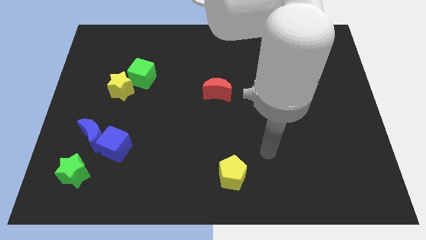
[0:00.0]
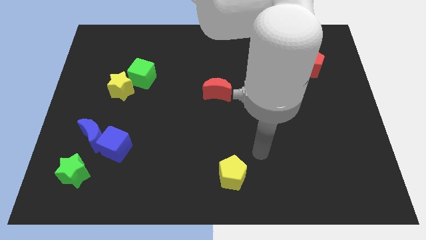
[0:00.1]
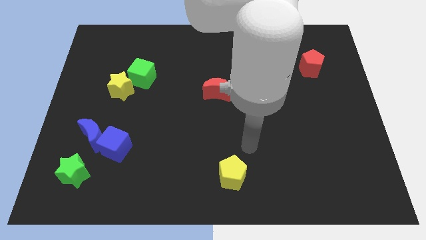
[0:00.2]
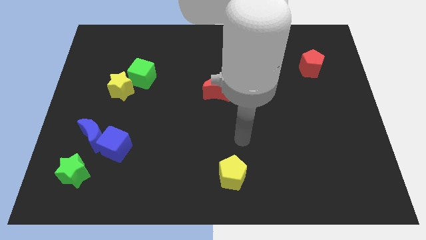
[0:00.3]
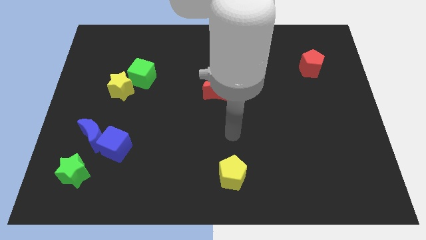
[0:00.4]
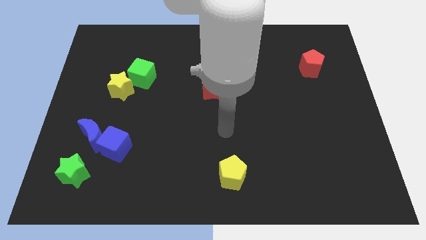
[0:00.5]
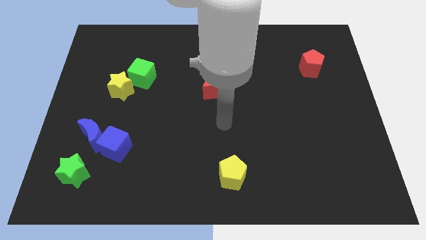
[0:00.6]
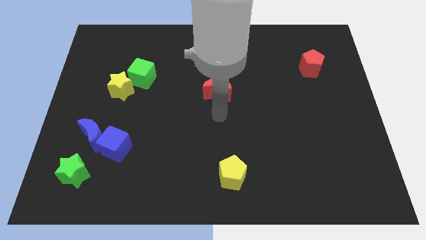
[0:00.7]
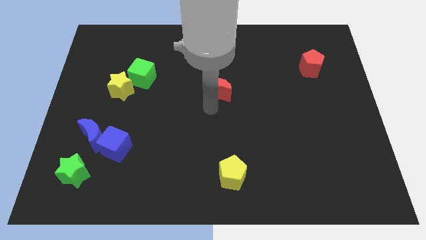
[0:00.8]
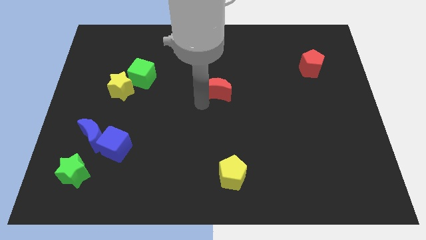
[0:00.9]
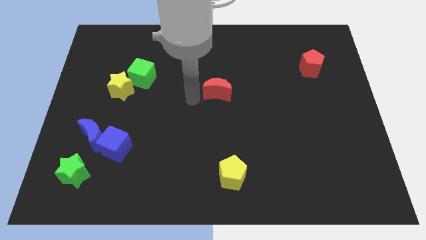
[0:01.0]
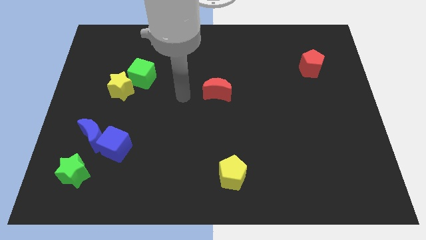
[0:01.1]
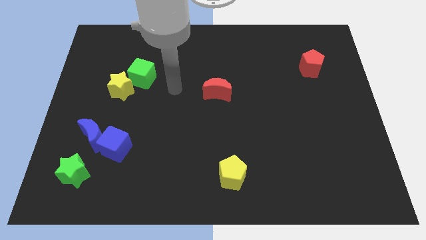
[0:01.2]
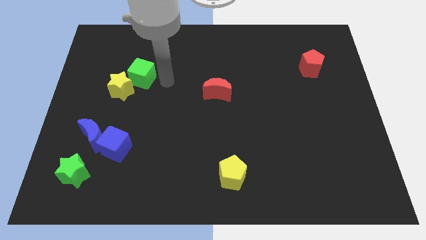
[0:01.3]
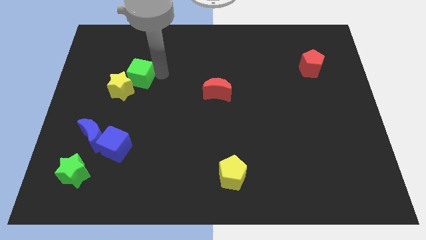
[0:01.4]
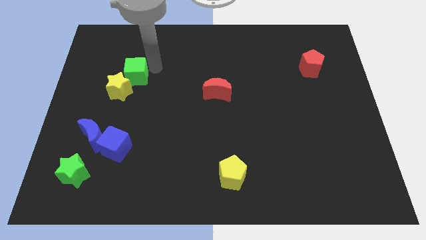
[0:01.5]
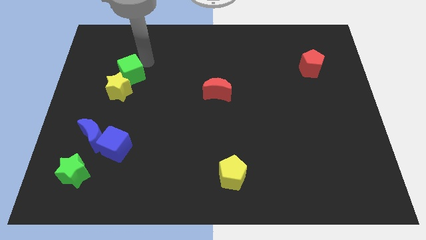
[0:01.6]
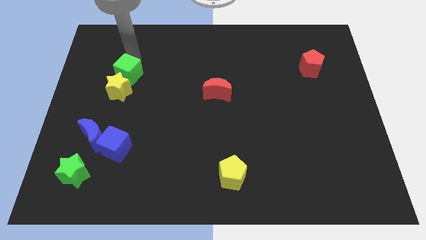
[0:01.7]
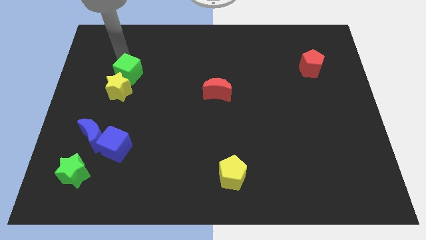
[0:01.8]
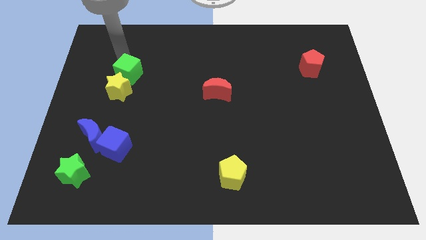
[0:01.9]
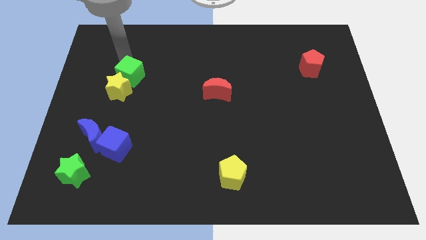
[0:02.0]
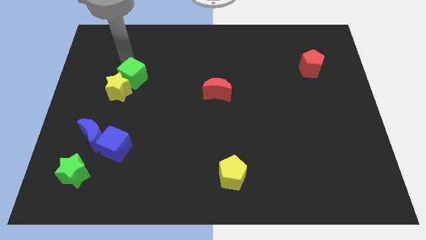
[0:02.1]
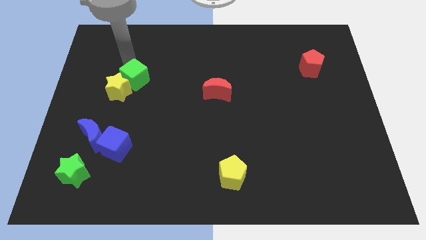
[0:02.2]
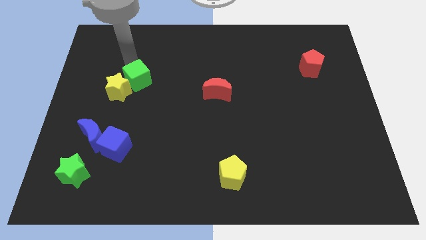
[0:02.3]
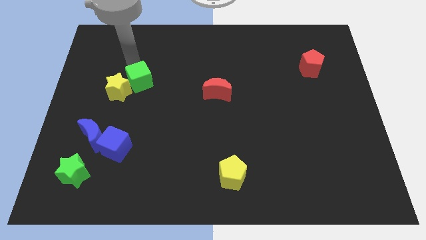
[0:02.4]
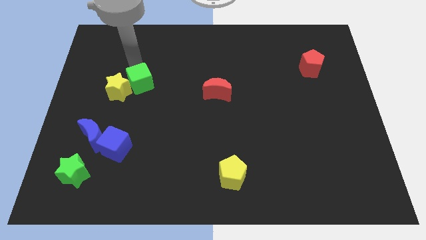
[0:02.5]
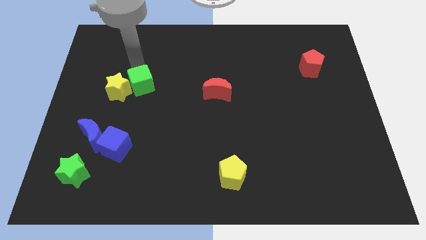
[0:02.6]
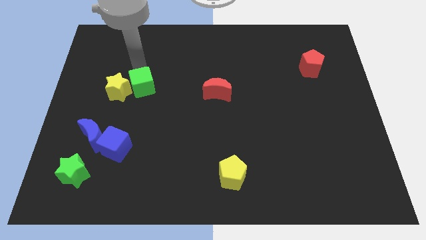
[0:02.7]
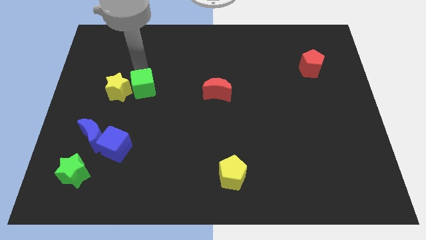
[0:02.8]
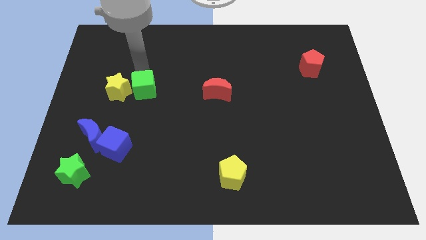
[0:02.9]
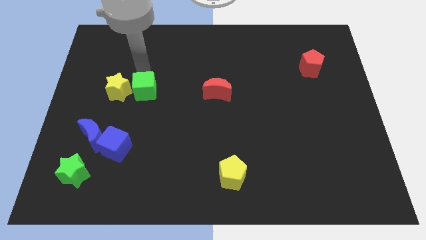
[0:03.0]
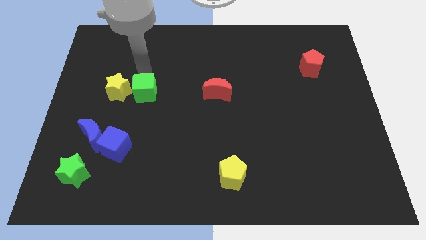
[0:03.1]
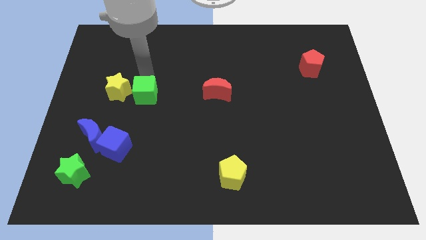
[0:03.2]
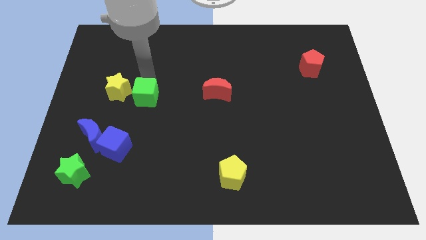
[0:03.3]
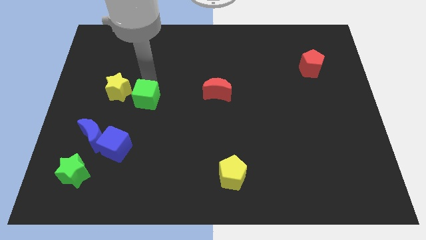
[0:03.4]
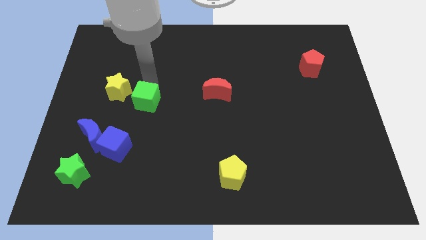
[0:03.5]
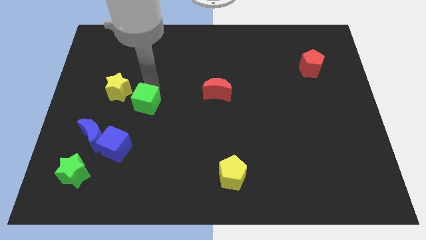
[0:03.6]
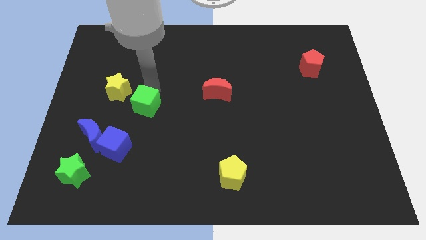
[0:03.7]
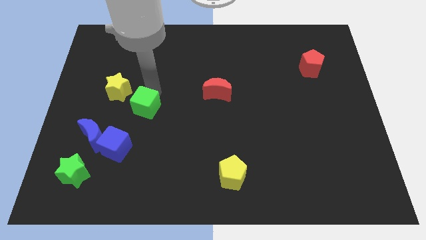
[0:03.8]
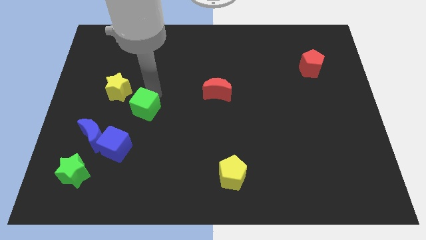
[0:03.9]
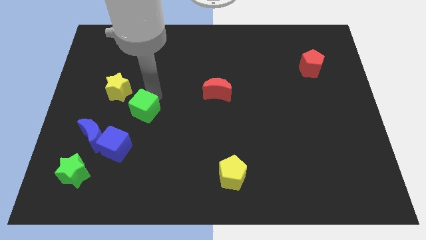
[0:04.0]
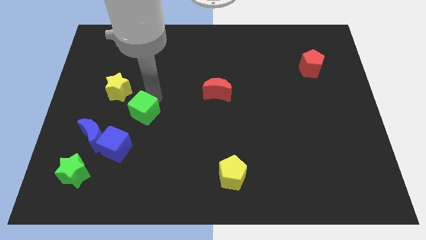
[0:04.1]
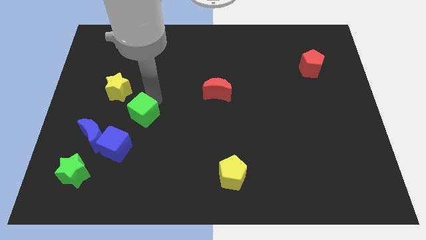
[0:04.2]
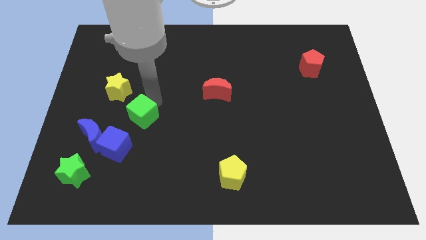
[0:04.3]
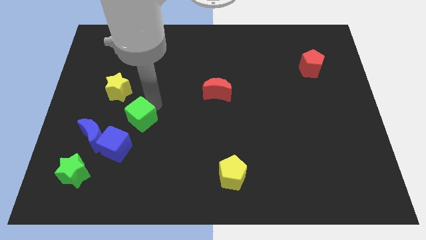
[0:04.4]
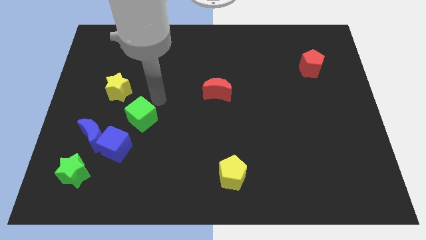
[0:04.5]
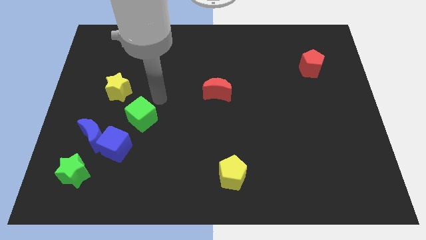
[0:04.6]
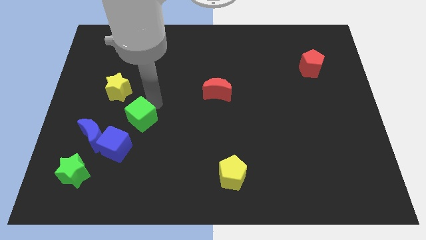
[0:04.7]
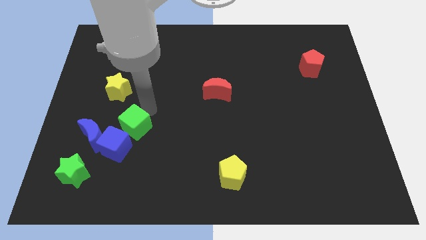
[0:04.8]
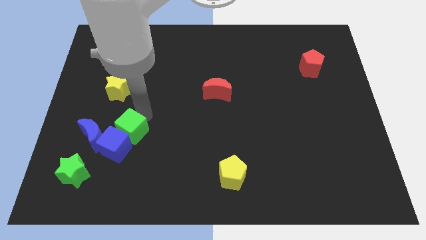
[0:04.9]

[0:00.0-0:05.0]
push the green cube towards the blue cube

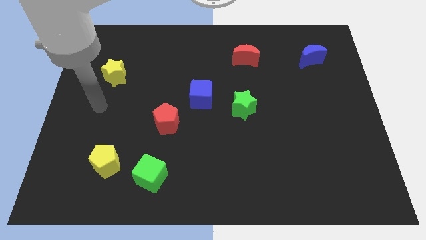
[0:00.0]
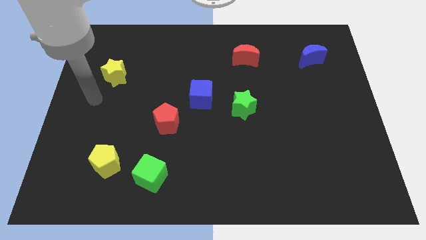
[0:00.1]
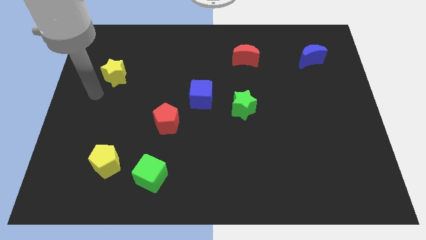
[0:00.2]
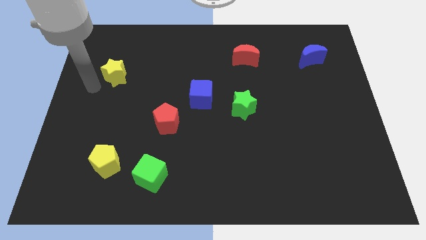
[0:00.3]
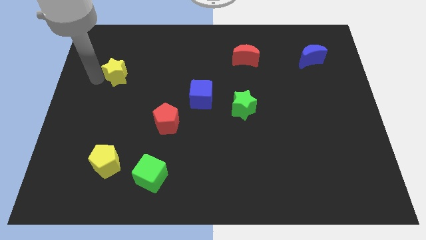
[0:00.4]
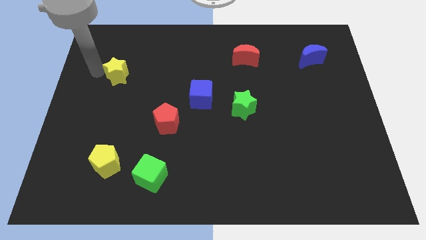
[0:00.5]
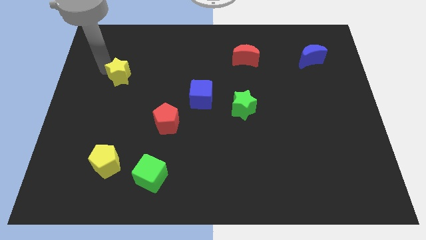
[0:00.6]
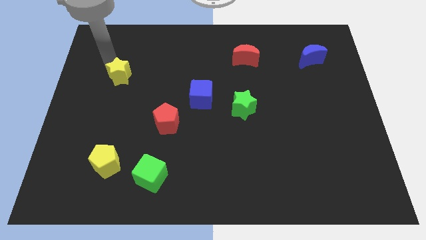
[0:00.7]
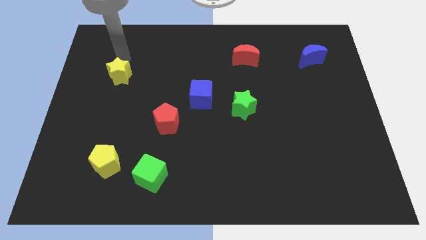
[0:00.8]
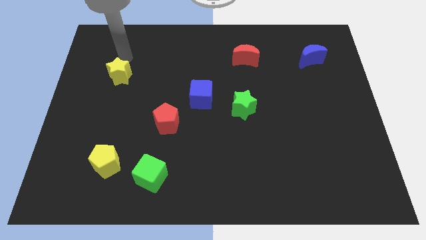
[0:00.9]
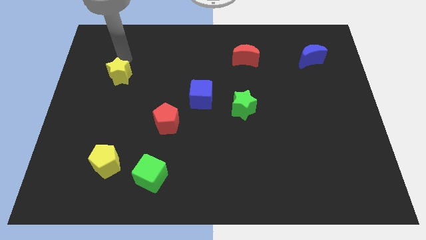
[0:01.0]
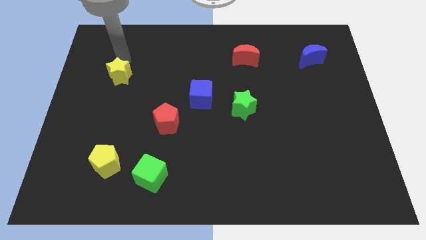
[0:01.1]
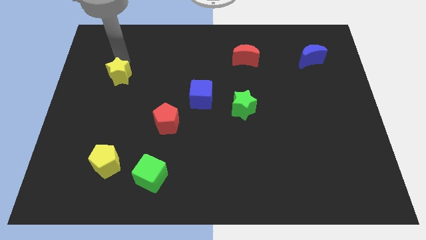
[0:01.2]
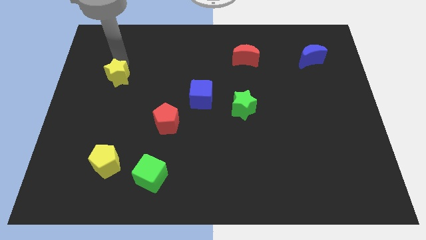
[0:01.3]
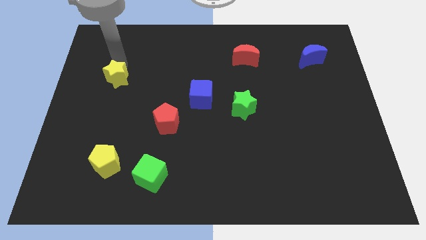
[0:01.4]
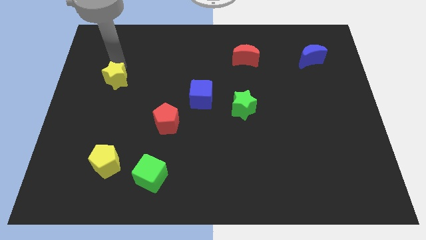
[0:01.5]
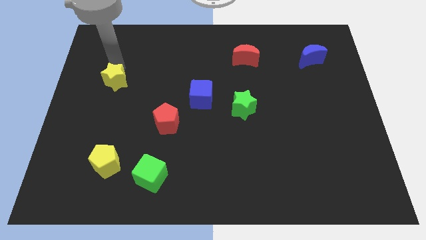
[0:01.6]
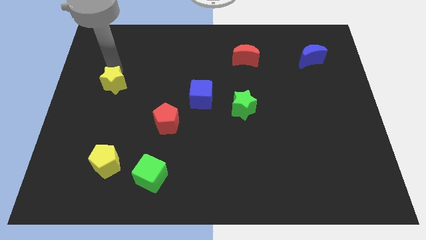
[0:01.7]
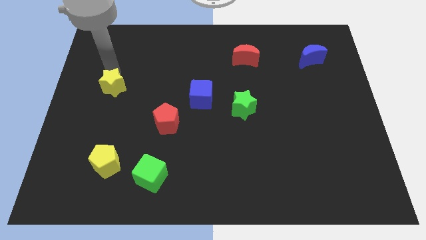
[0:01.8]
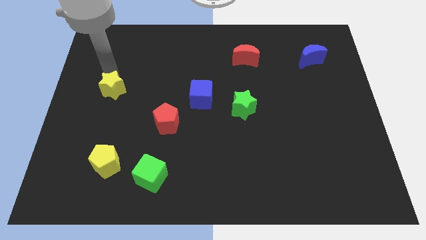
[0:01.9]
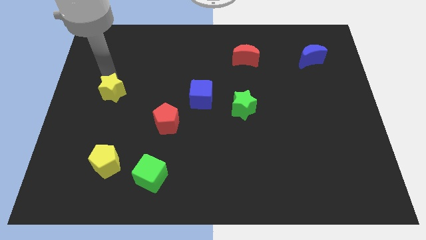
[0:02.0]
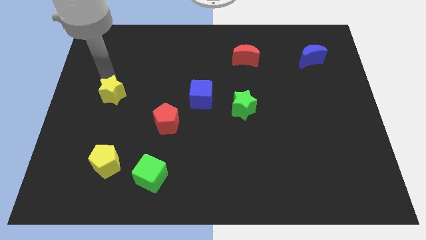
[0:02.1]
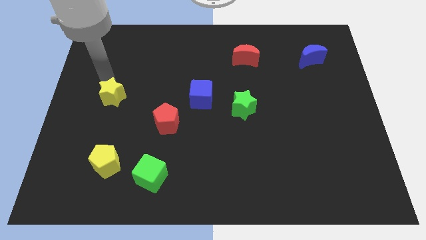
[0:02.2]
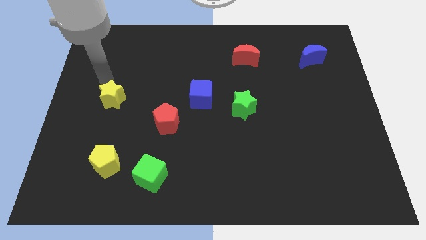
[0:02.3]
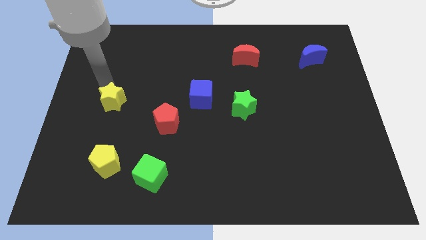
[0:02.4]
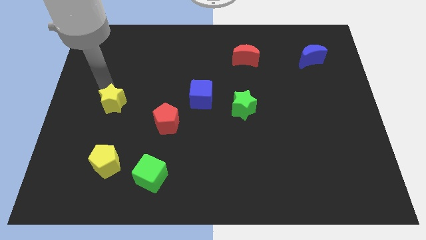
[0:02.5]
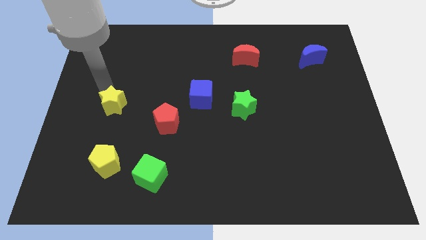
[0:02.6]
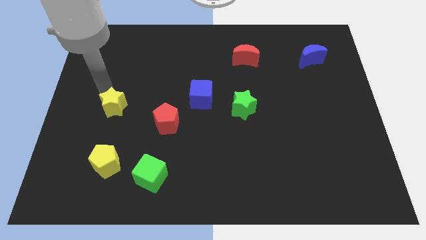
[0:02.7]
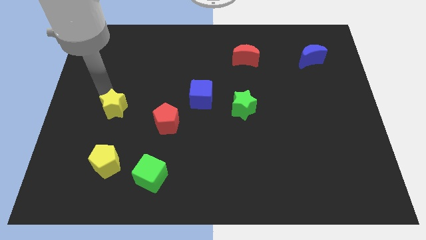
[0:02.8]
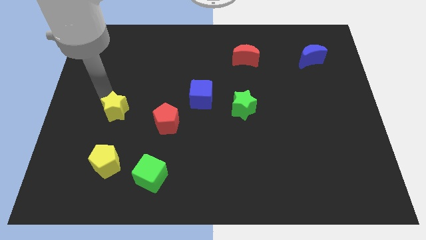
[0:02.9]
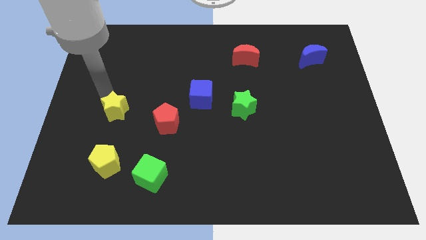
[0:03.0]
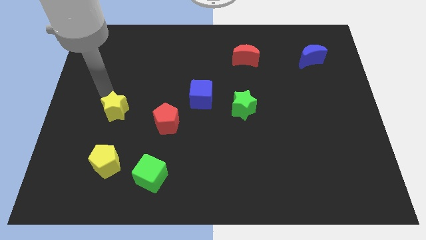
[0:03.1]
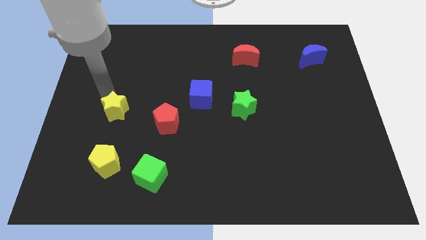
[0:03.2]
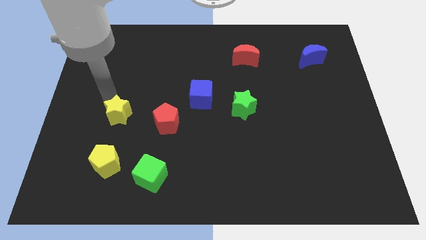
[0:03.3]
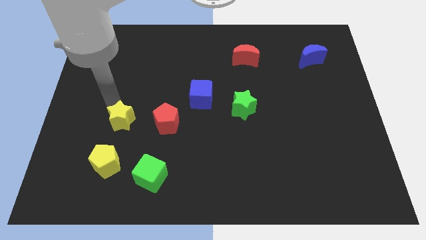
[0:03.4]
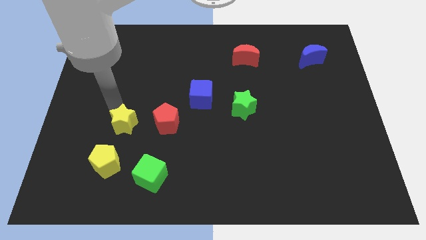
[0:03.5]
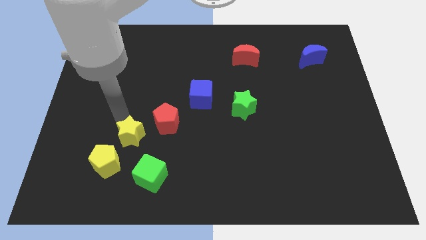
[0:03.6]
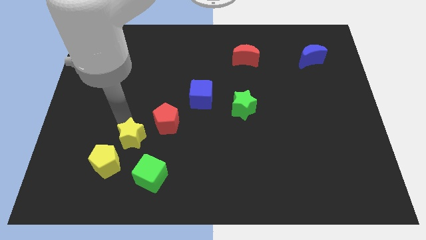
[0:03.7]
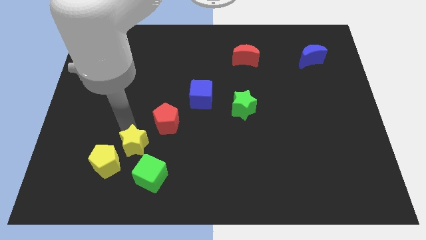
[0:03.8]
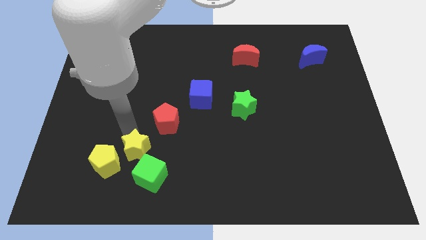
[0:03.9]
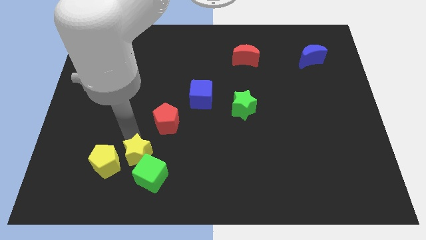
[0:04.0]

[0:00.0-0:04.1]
put the yellow star close to the green cube
